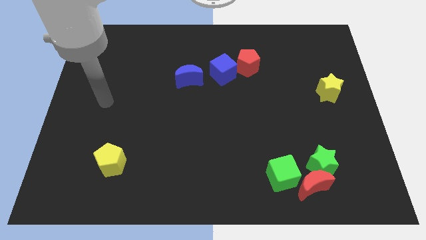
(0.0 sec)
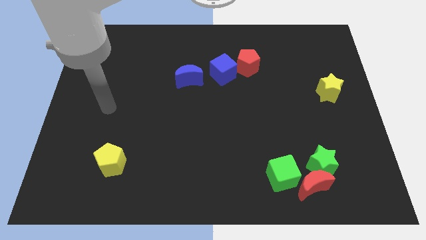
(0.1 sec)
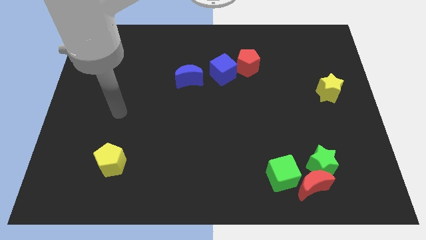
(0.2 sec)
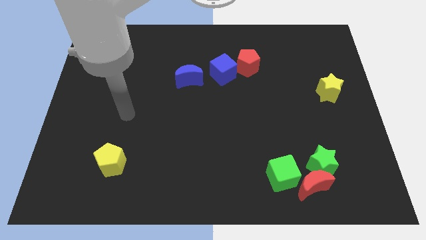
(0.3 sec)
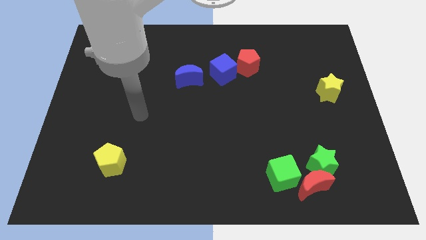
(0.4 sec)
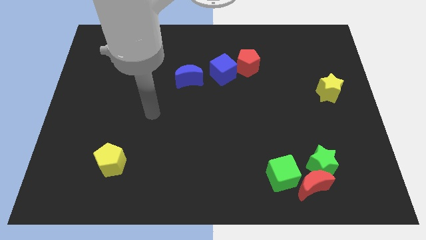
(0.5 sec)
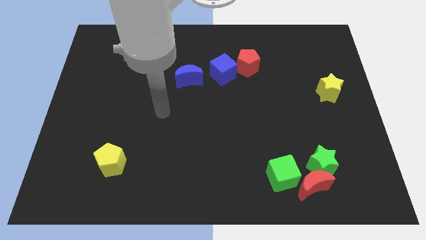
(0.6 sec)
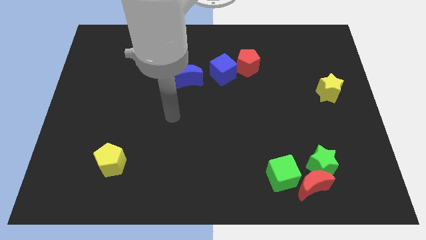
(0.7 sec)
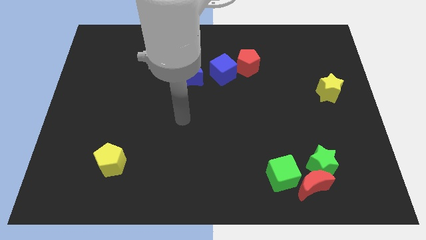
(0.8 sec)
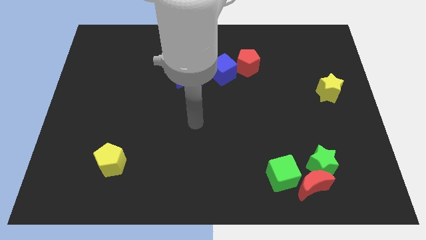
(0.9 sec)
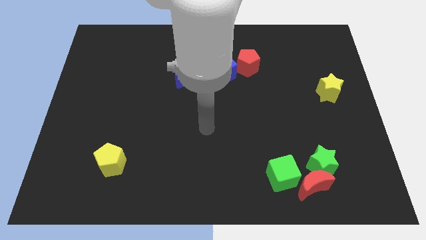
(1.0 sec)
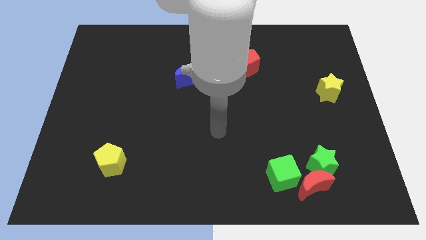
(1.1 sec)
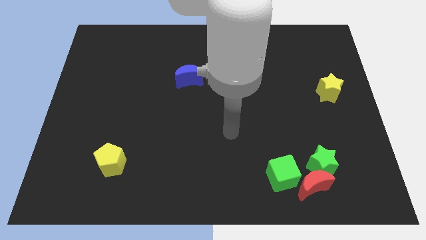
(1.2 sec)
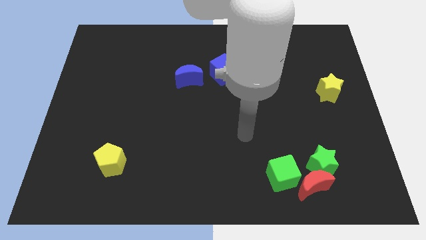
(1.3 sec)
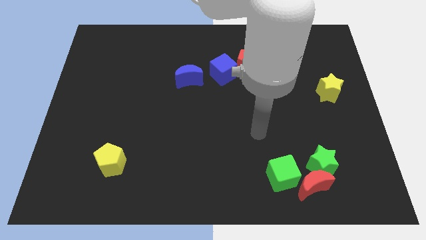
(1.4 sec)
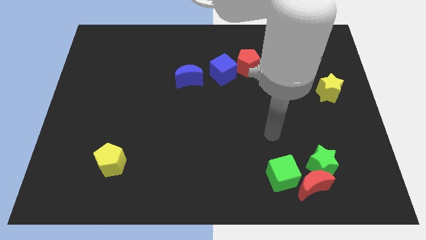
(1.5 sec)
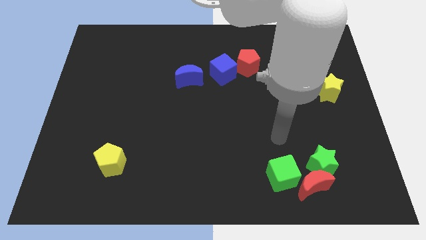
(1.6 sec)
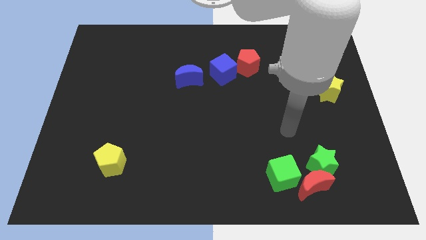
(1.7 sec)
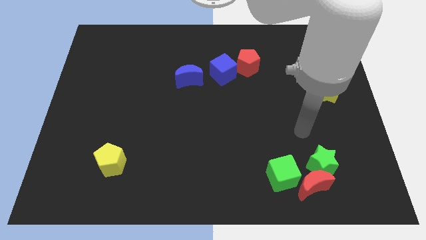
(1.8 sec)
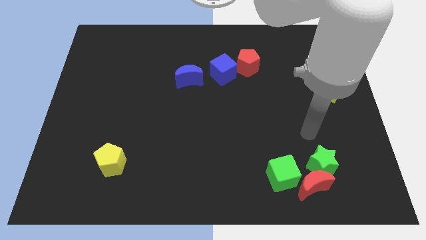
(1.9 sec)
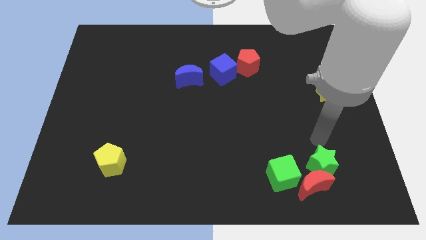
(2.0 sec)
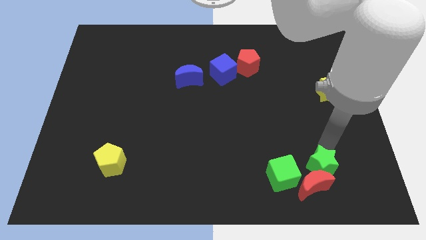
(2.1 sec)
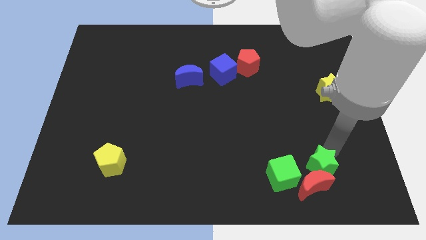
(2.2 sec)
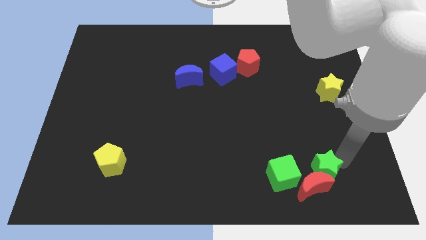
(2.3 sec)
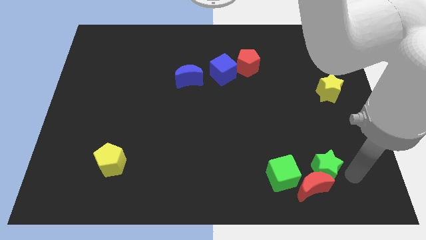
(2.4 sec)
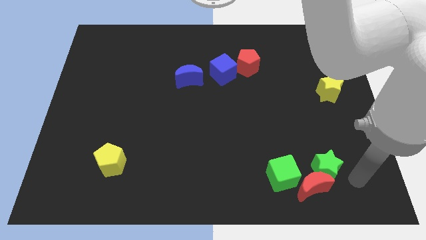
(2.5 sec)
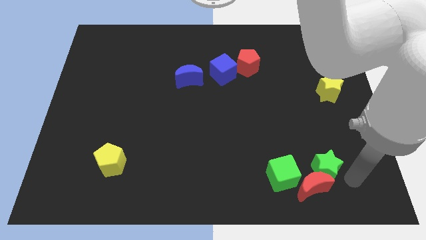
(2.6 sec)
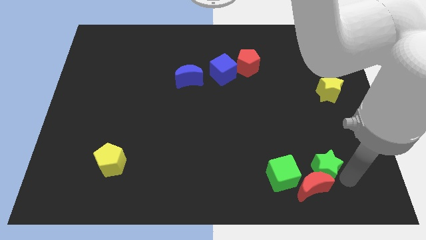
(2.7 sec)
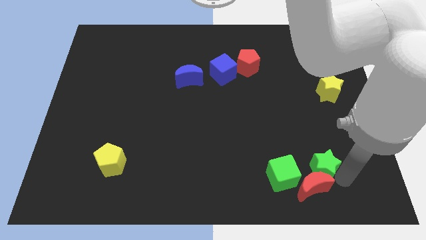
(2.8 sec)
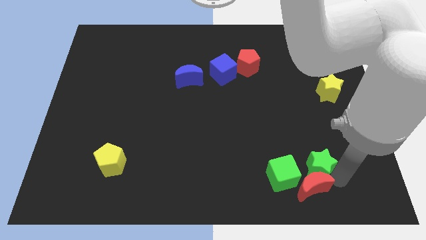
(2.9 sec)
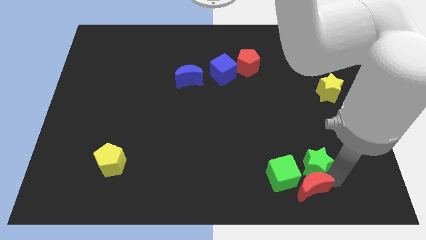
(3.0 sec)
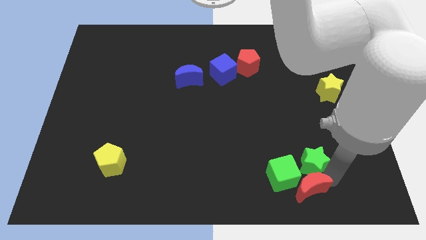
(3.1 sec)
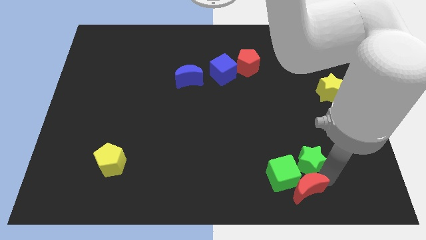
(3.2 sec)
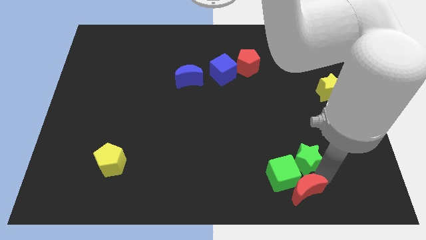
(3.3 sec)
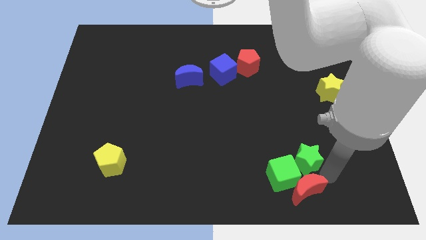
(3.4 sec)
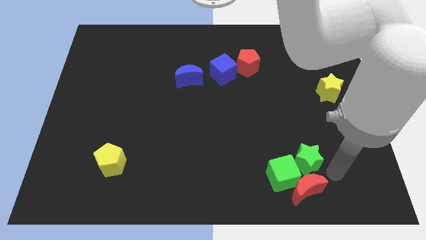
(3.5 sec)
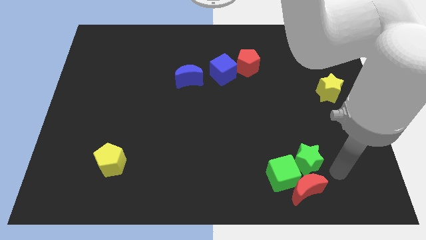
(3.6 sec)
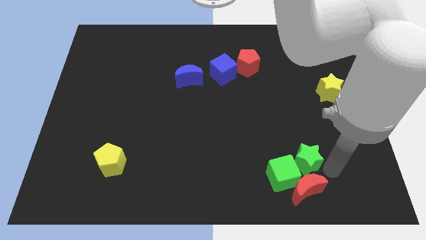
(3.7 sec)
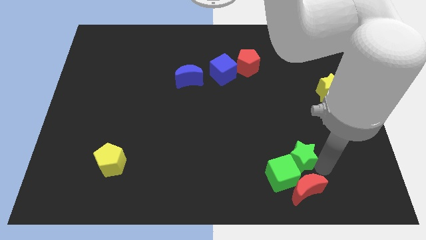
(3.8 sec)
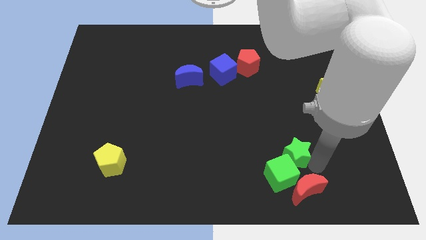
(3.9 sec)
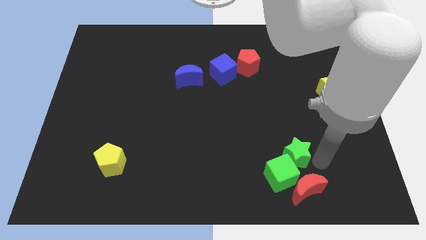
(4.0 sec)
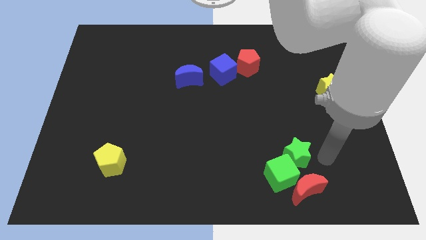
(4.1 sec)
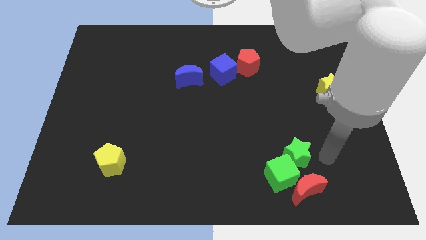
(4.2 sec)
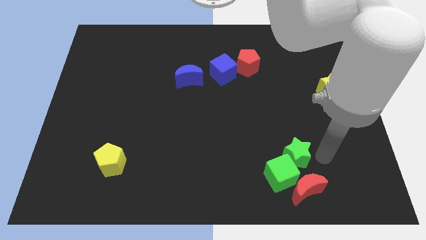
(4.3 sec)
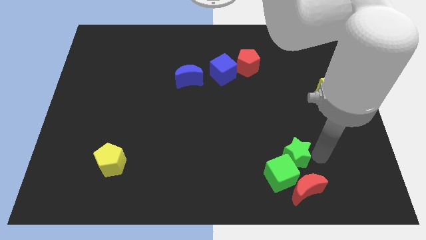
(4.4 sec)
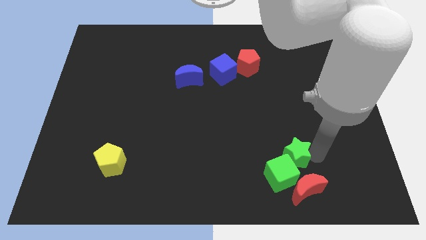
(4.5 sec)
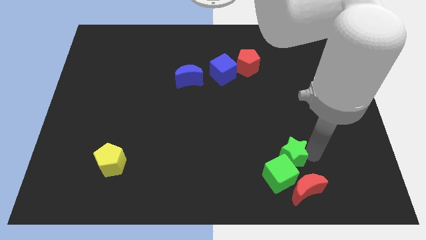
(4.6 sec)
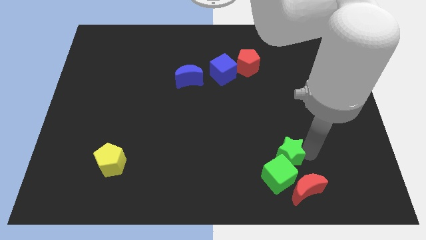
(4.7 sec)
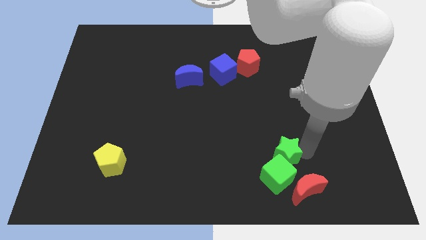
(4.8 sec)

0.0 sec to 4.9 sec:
move the green star left a little

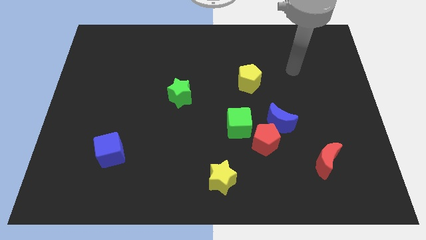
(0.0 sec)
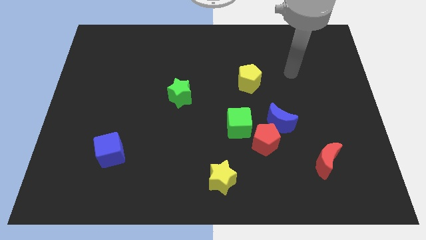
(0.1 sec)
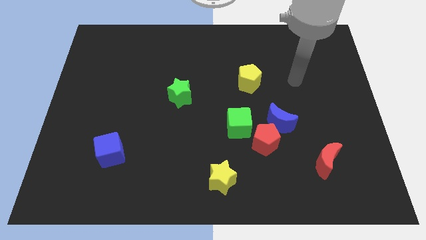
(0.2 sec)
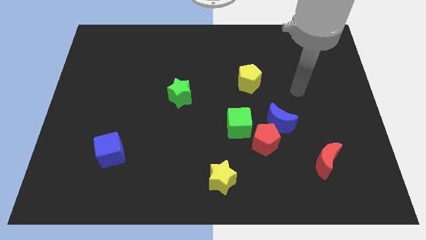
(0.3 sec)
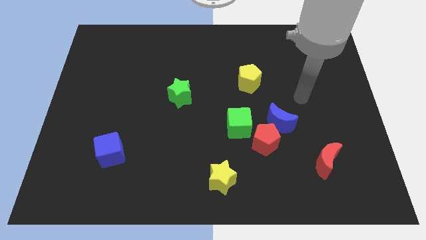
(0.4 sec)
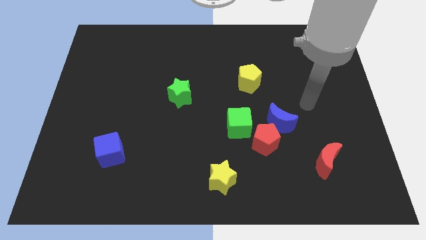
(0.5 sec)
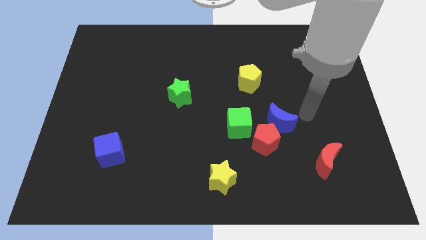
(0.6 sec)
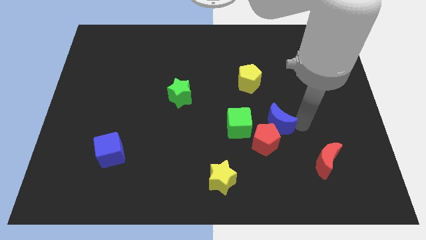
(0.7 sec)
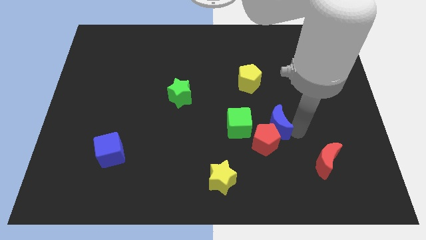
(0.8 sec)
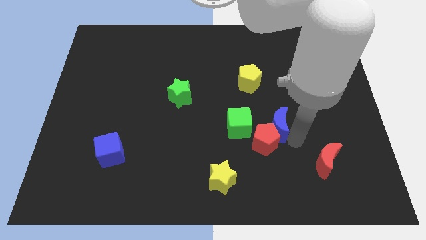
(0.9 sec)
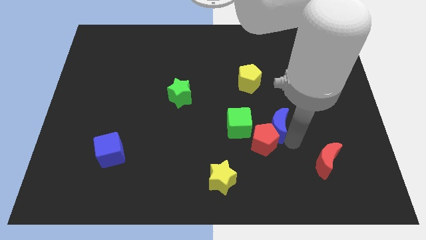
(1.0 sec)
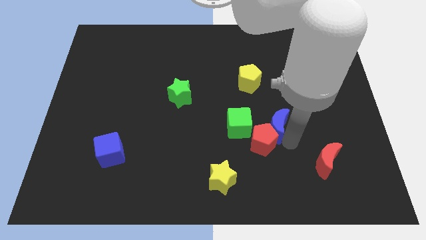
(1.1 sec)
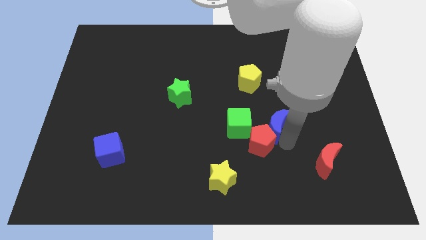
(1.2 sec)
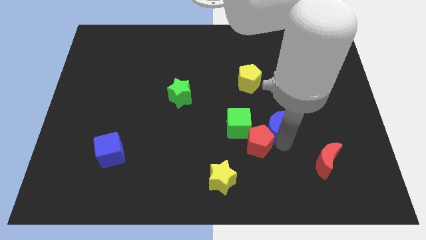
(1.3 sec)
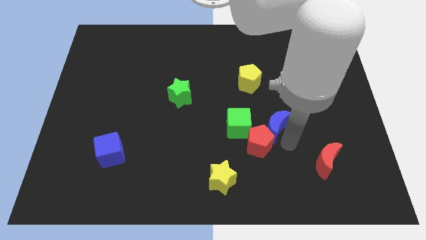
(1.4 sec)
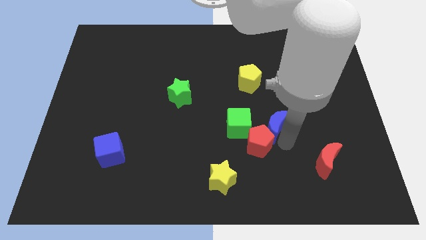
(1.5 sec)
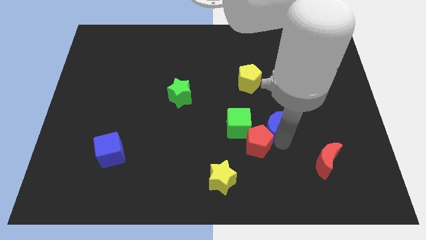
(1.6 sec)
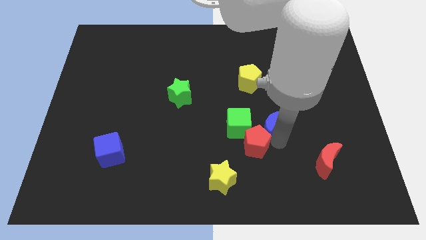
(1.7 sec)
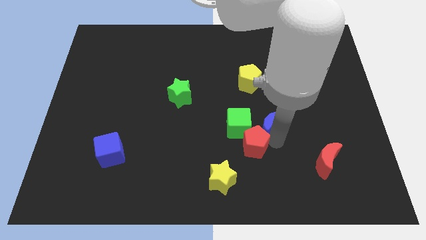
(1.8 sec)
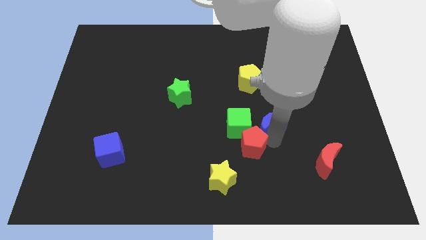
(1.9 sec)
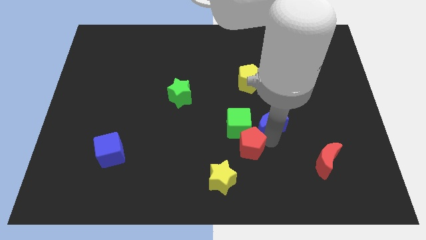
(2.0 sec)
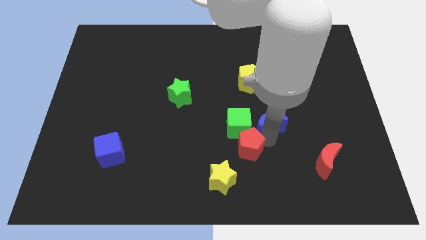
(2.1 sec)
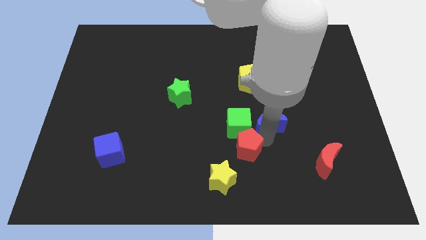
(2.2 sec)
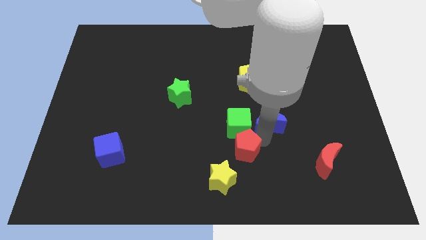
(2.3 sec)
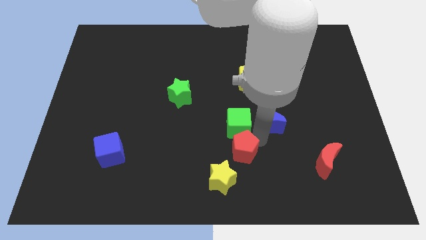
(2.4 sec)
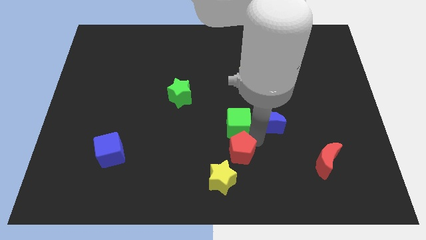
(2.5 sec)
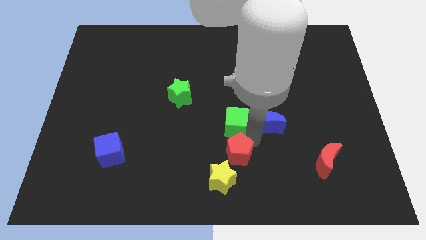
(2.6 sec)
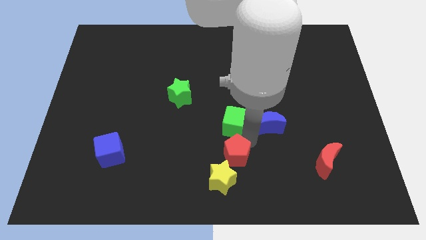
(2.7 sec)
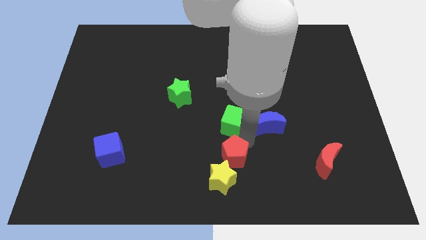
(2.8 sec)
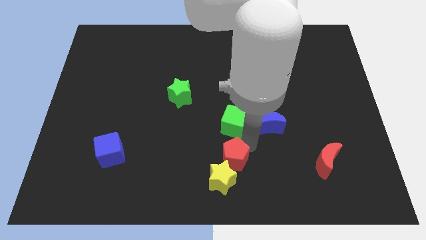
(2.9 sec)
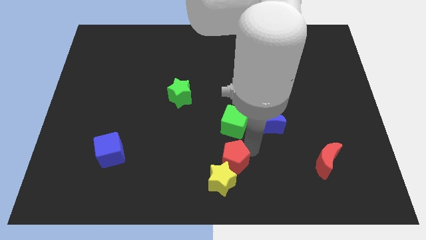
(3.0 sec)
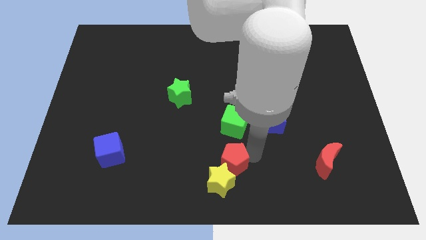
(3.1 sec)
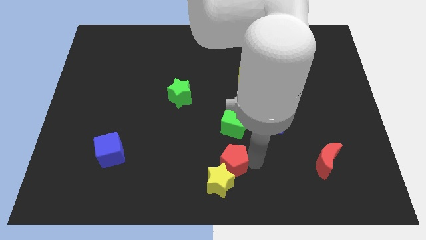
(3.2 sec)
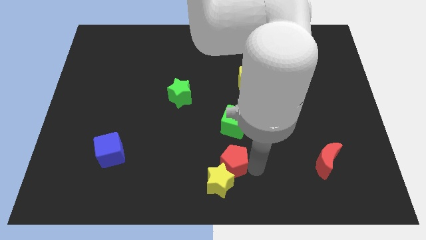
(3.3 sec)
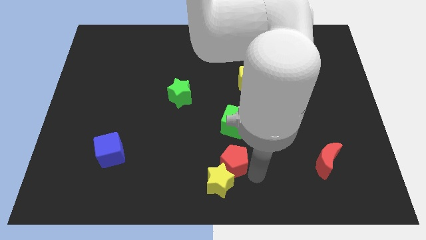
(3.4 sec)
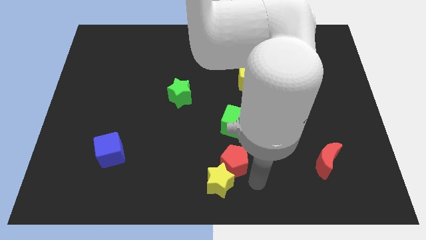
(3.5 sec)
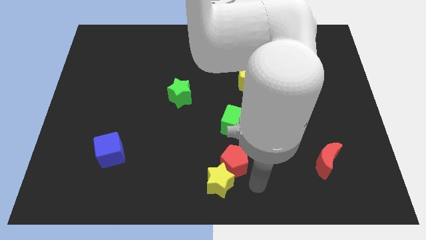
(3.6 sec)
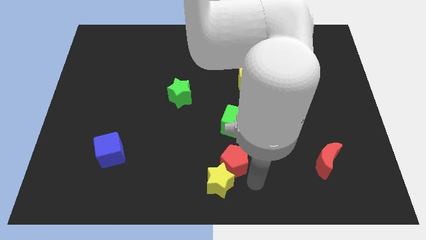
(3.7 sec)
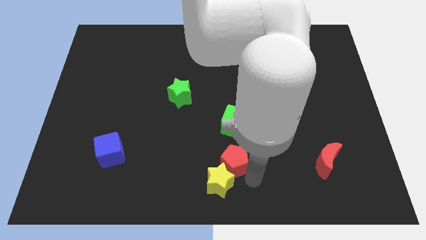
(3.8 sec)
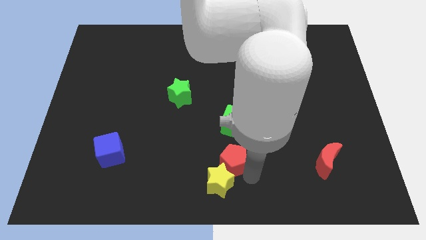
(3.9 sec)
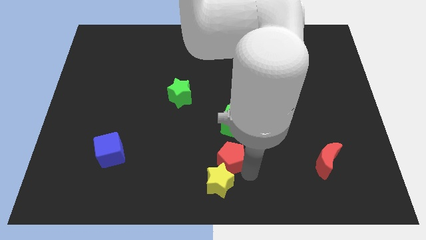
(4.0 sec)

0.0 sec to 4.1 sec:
slide the red pentagon slightly to the left
